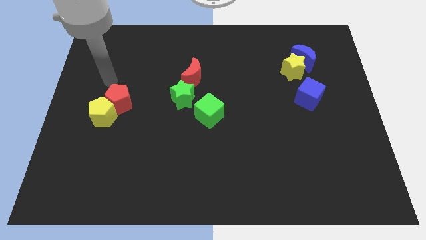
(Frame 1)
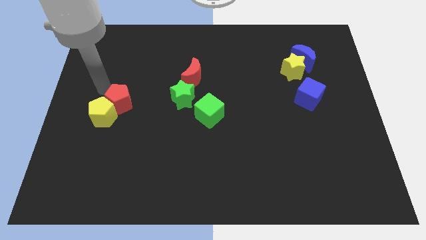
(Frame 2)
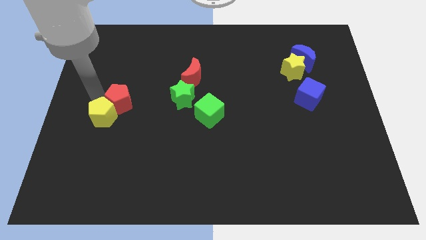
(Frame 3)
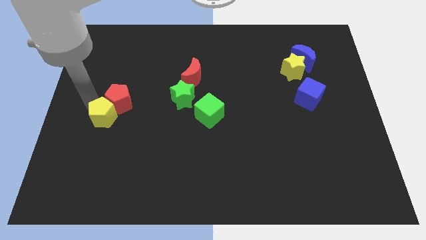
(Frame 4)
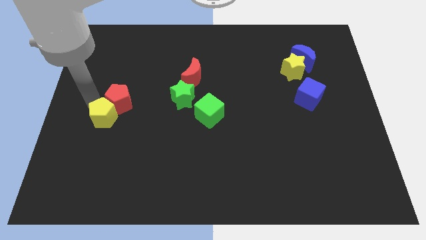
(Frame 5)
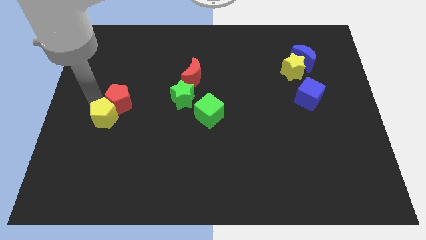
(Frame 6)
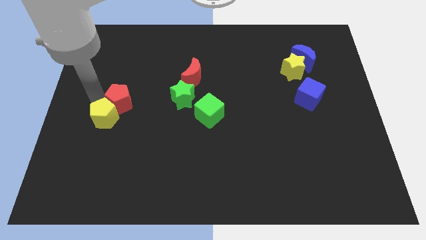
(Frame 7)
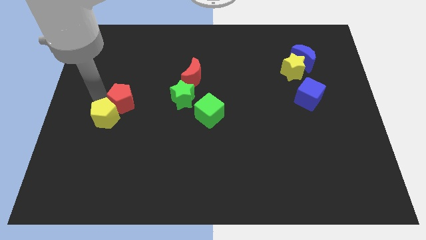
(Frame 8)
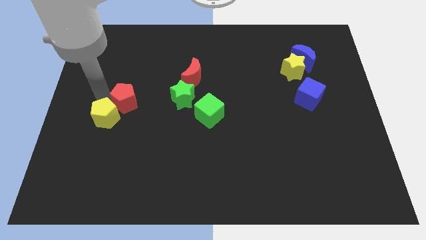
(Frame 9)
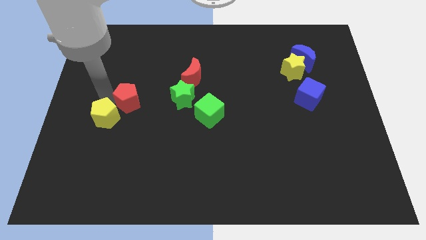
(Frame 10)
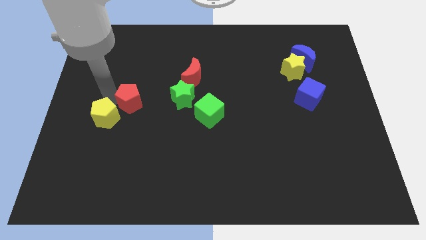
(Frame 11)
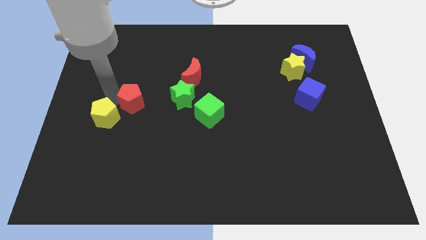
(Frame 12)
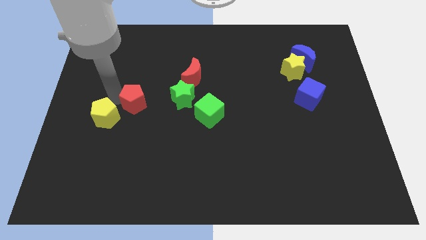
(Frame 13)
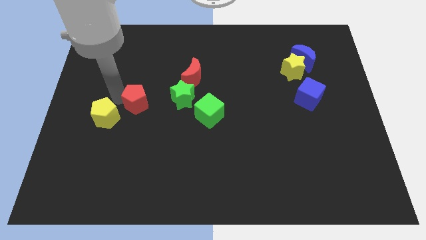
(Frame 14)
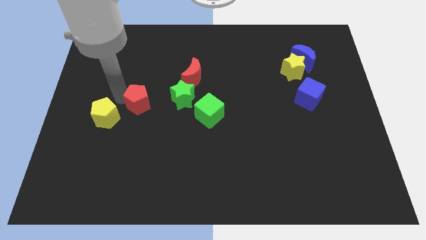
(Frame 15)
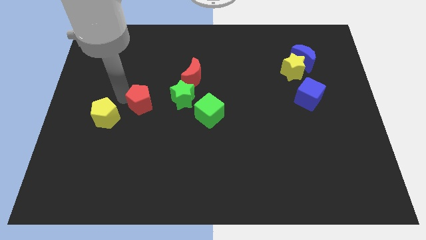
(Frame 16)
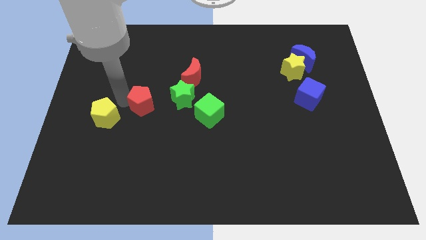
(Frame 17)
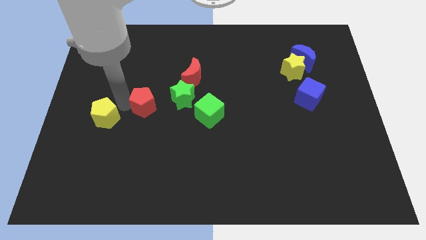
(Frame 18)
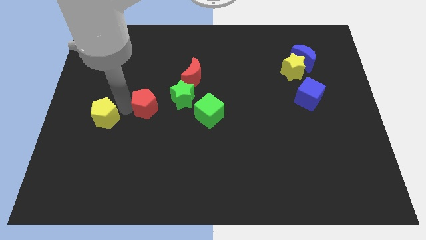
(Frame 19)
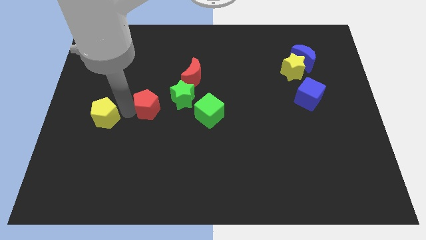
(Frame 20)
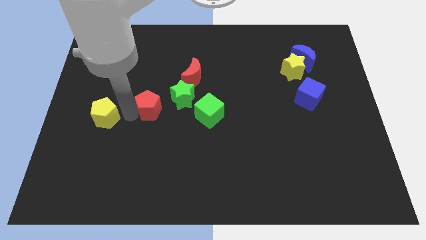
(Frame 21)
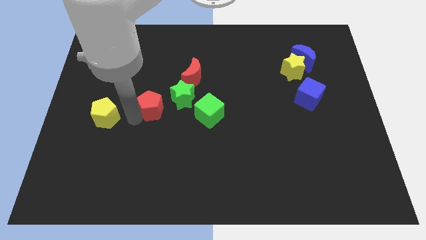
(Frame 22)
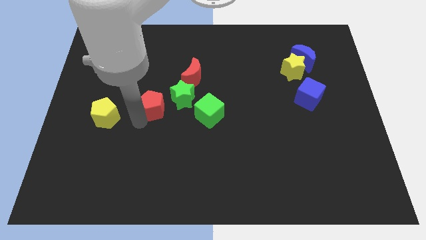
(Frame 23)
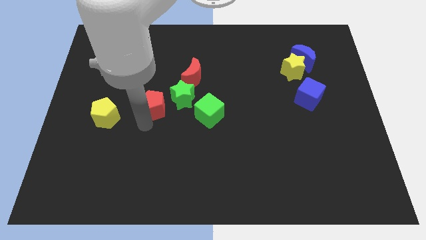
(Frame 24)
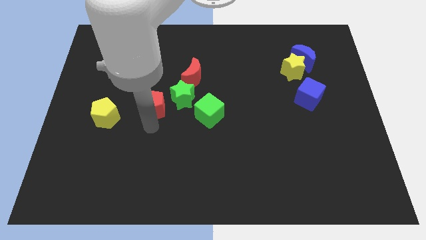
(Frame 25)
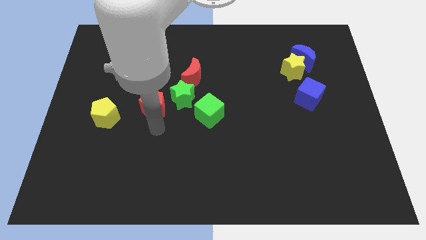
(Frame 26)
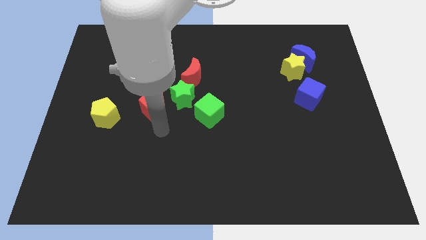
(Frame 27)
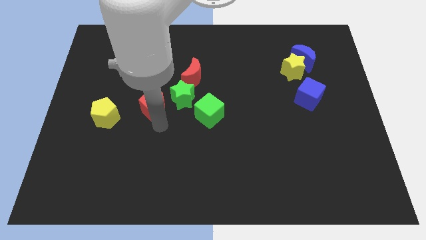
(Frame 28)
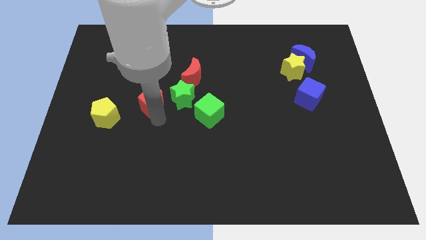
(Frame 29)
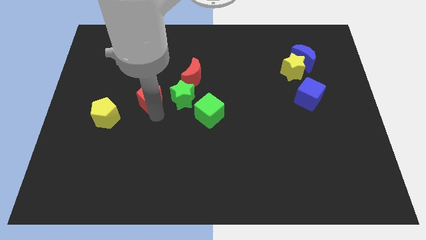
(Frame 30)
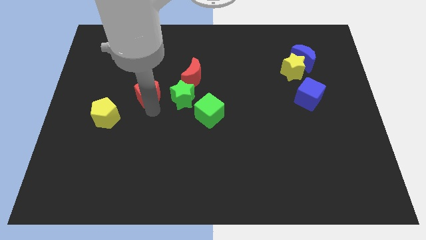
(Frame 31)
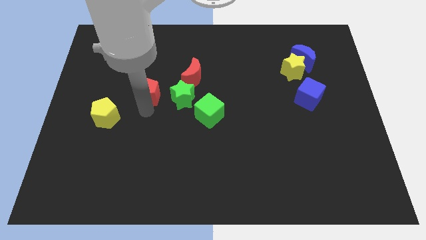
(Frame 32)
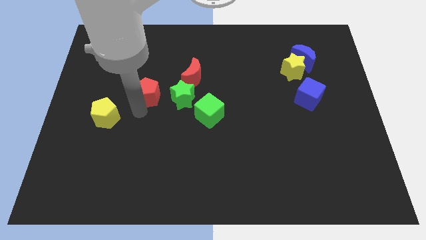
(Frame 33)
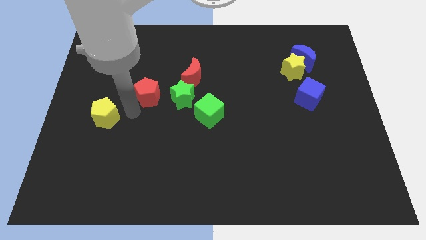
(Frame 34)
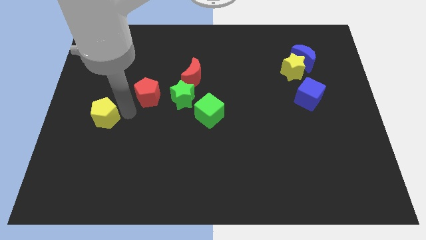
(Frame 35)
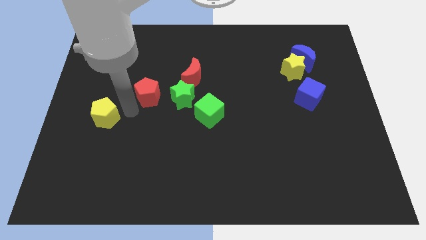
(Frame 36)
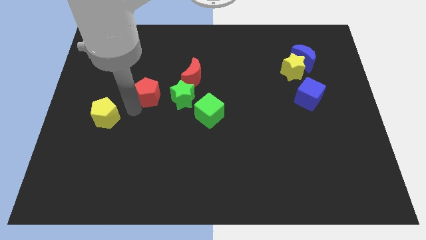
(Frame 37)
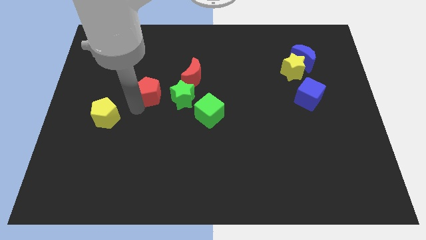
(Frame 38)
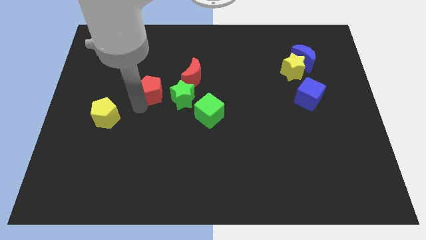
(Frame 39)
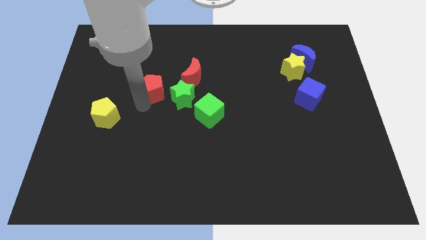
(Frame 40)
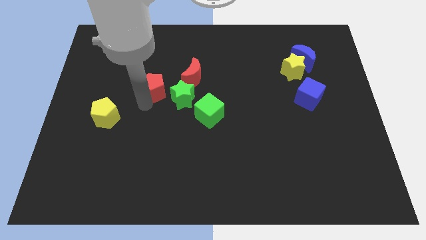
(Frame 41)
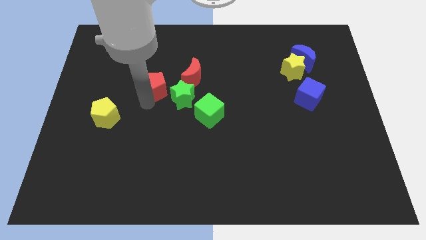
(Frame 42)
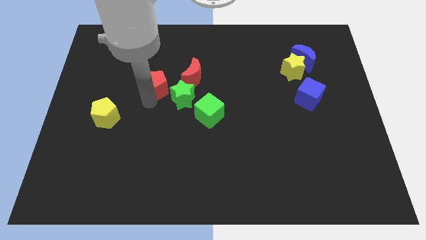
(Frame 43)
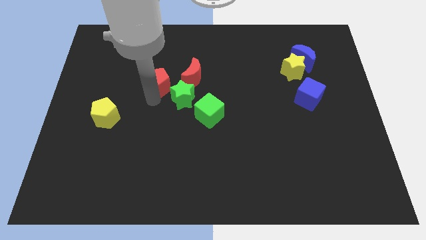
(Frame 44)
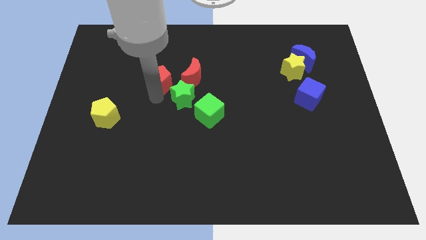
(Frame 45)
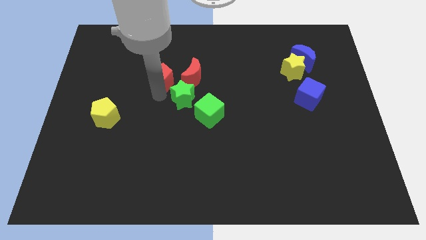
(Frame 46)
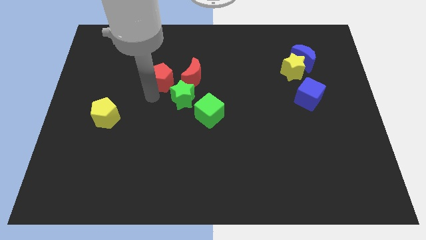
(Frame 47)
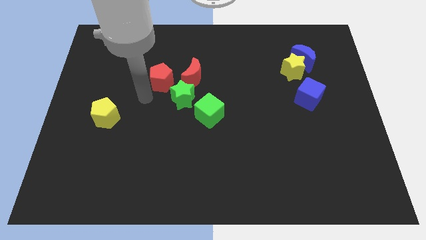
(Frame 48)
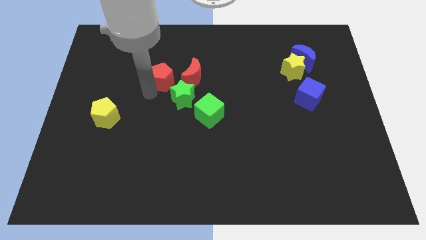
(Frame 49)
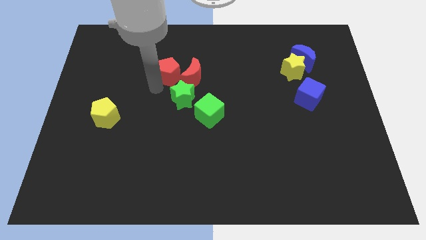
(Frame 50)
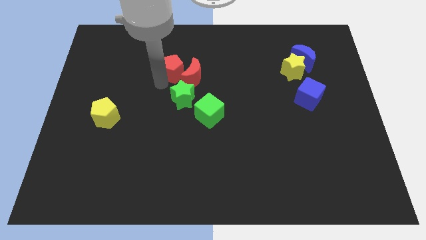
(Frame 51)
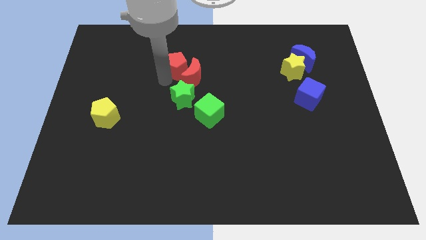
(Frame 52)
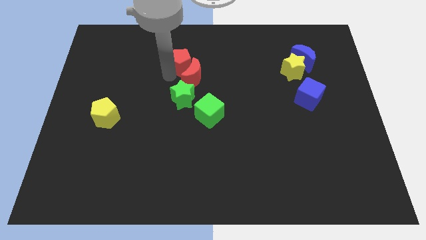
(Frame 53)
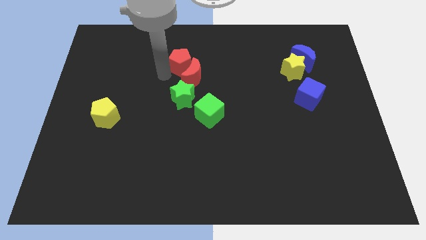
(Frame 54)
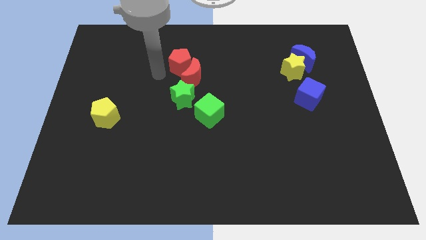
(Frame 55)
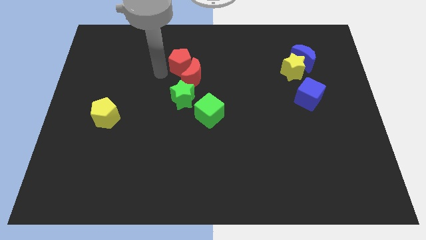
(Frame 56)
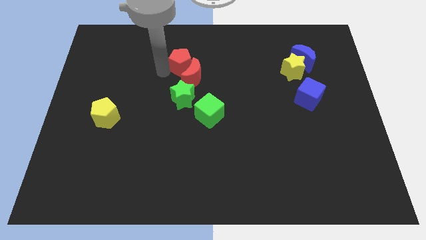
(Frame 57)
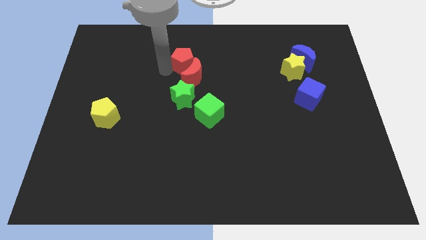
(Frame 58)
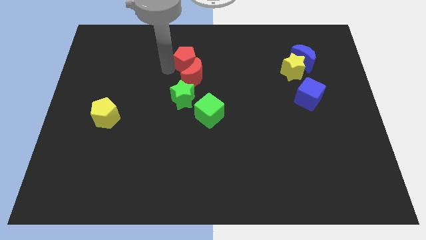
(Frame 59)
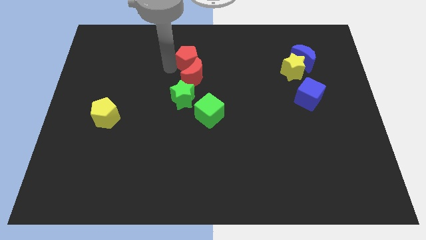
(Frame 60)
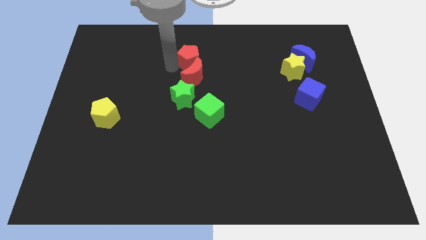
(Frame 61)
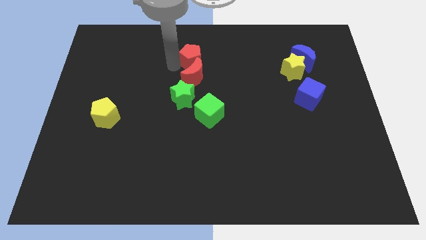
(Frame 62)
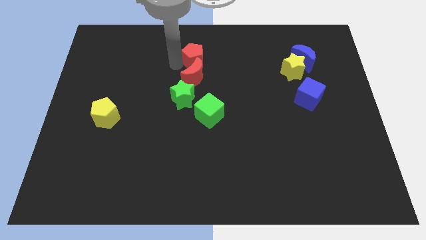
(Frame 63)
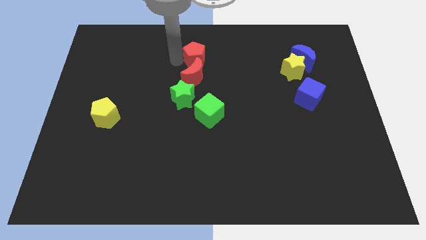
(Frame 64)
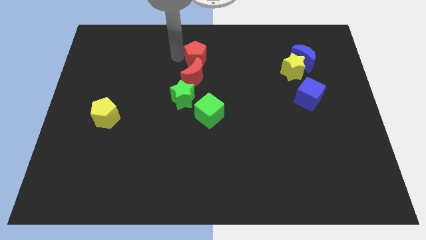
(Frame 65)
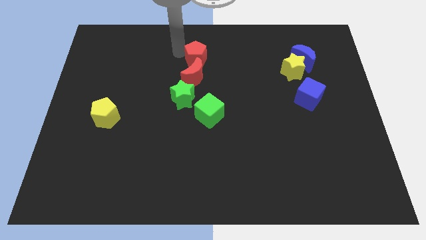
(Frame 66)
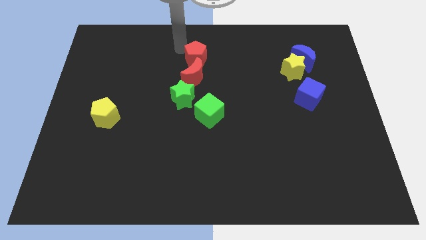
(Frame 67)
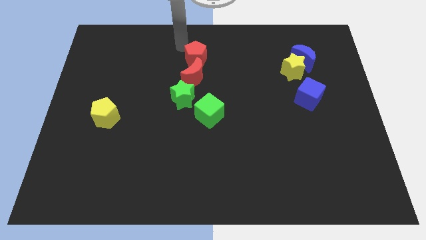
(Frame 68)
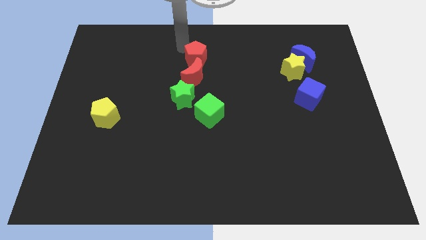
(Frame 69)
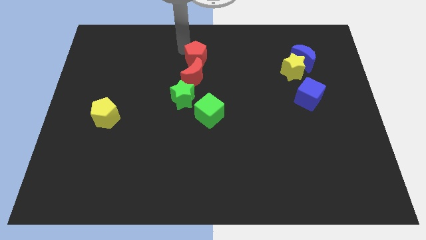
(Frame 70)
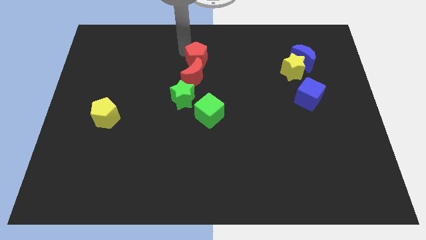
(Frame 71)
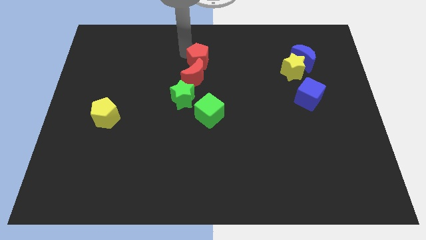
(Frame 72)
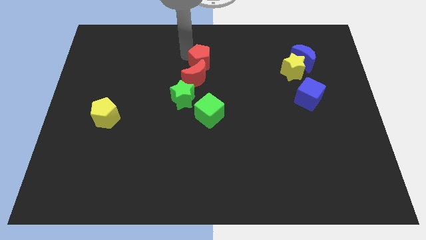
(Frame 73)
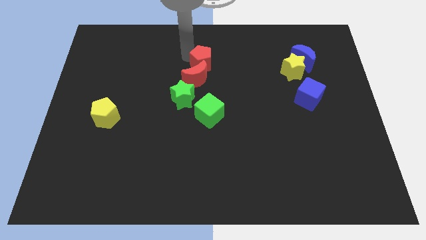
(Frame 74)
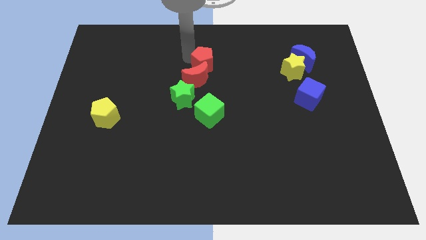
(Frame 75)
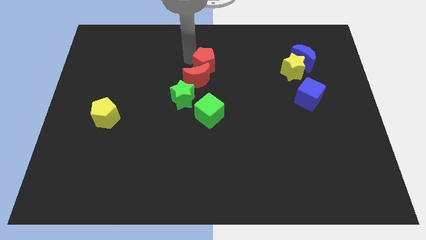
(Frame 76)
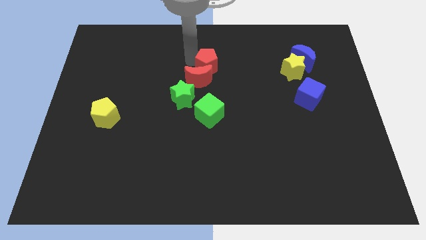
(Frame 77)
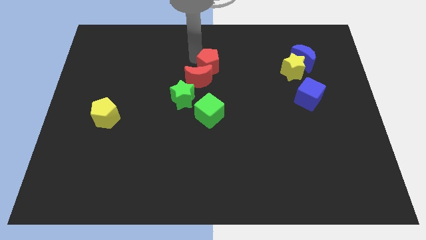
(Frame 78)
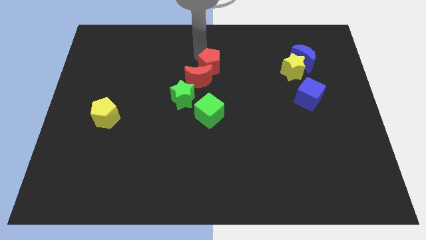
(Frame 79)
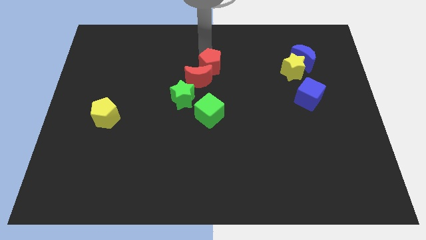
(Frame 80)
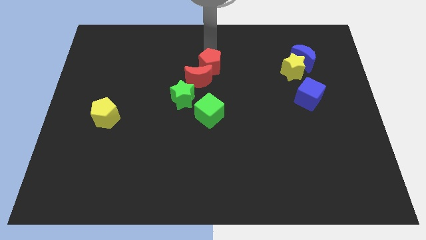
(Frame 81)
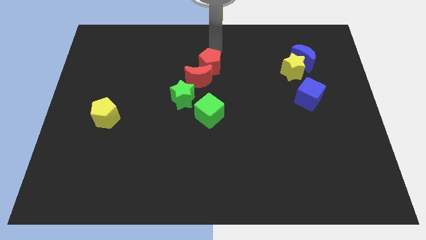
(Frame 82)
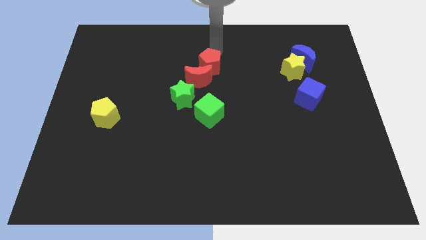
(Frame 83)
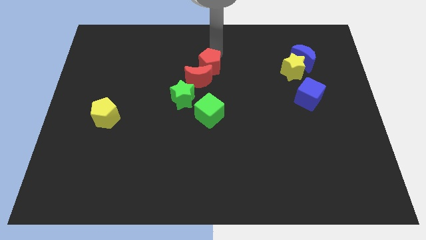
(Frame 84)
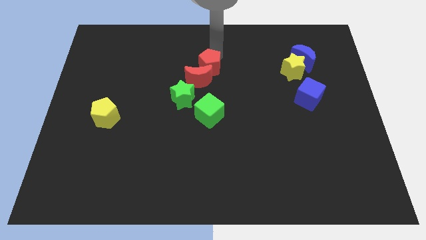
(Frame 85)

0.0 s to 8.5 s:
push the red pentagon to the top right side of the green star
